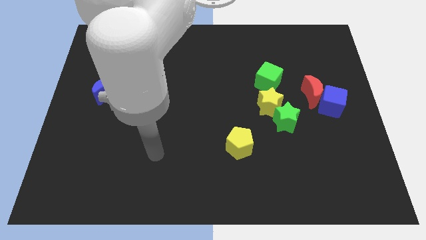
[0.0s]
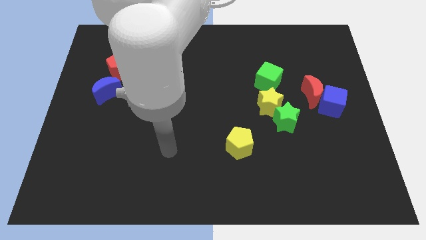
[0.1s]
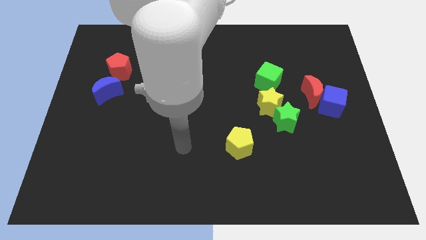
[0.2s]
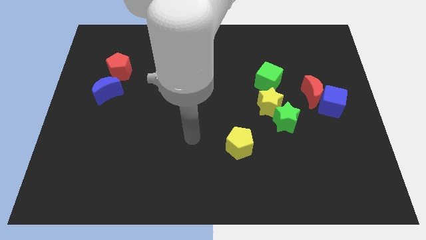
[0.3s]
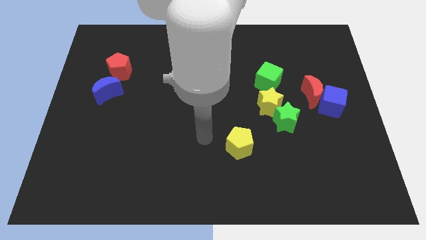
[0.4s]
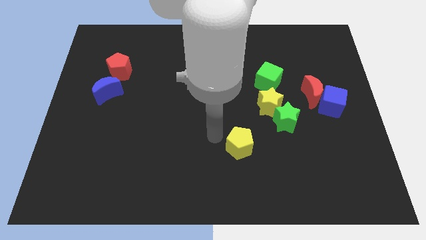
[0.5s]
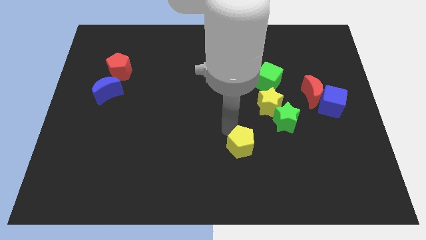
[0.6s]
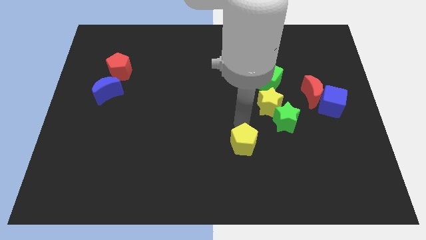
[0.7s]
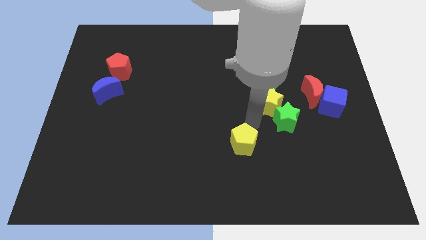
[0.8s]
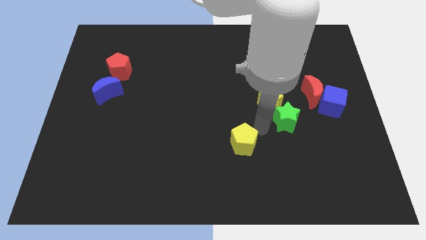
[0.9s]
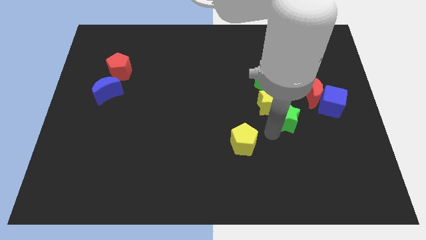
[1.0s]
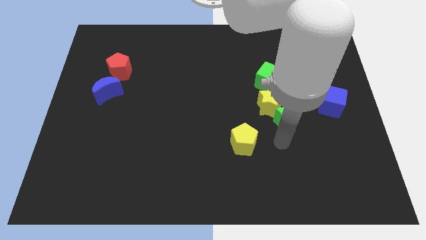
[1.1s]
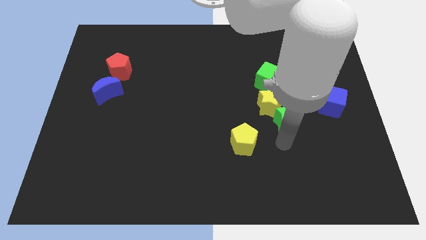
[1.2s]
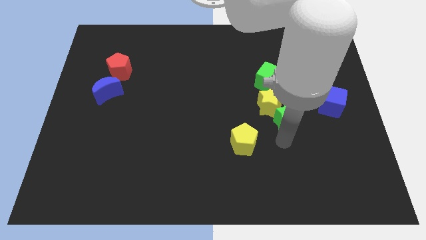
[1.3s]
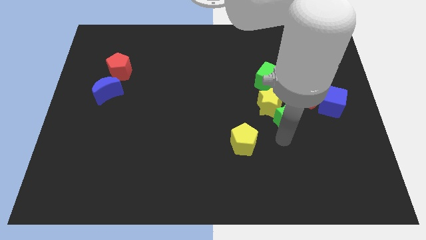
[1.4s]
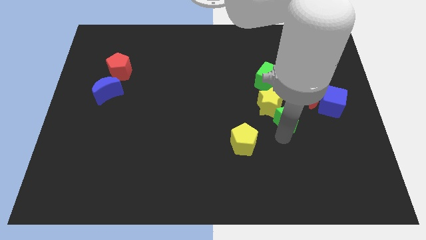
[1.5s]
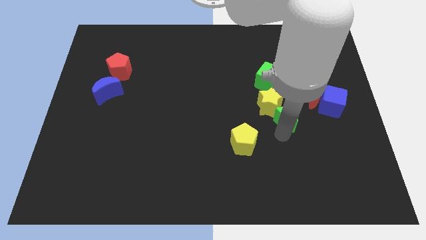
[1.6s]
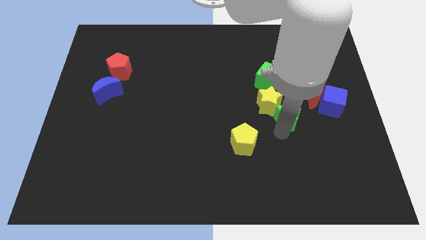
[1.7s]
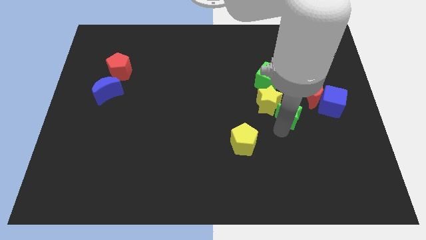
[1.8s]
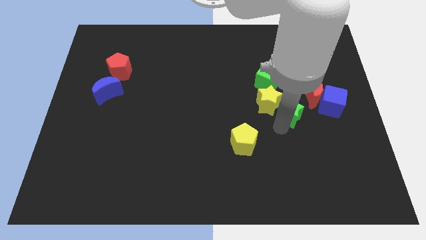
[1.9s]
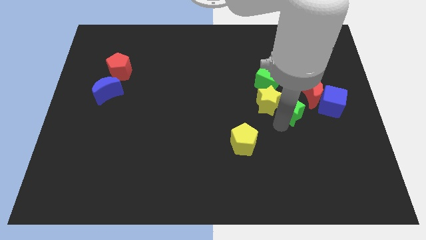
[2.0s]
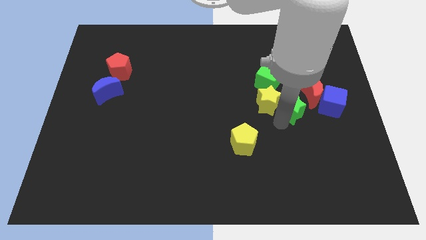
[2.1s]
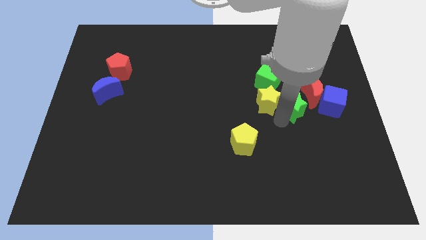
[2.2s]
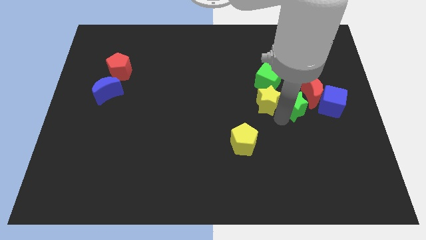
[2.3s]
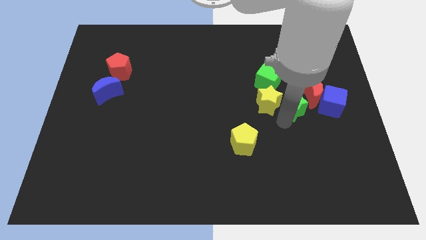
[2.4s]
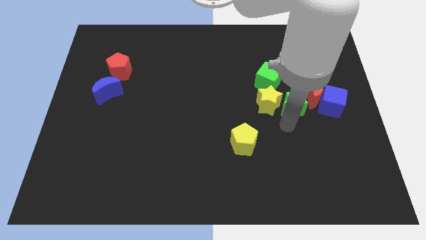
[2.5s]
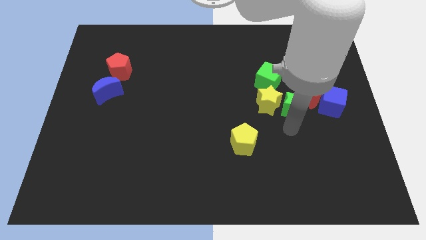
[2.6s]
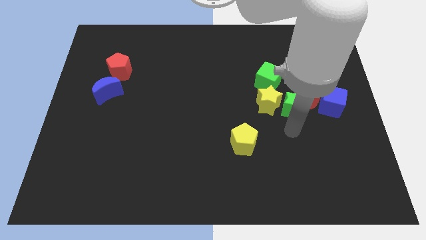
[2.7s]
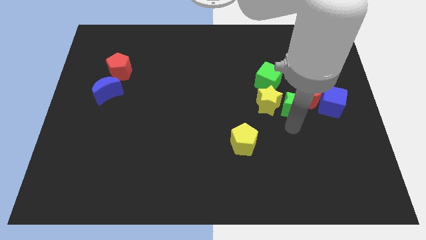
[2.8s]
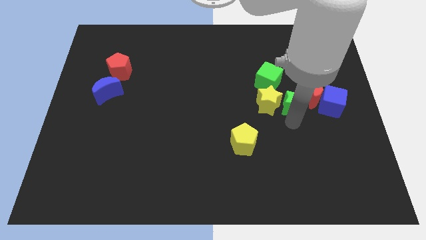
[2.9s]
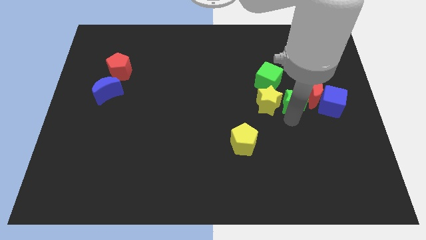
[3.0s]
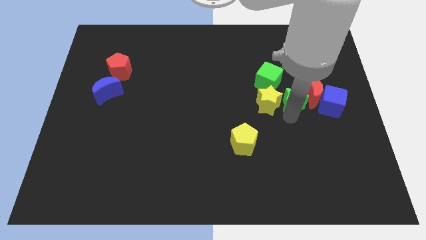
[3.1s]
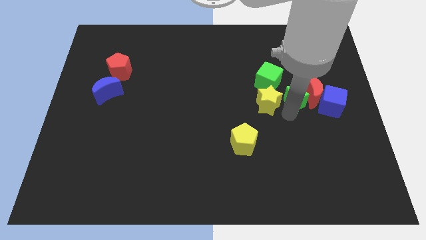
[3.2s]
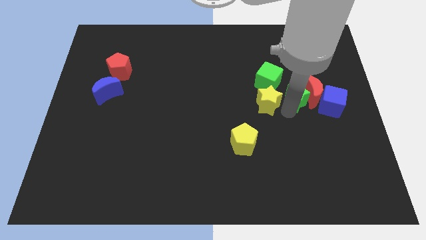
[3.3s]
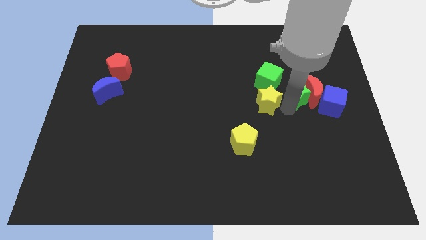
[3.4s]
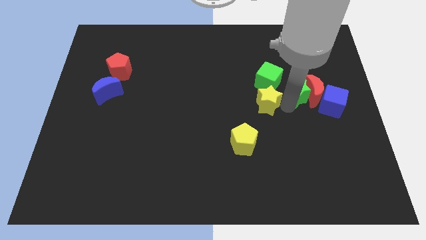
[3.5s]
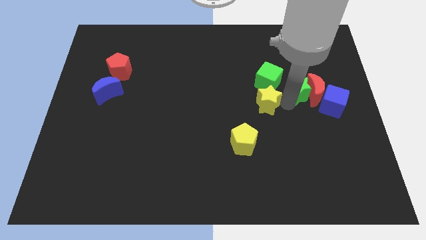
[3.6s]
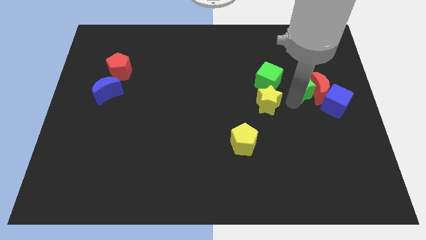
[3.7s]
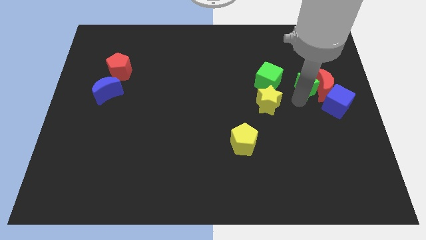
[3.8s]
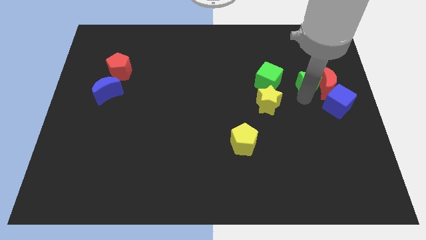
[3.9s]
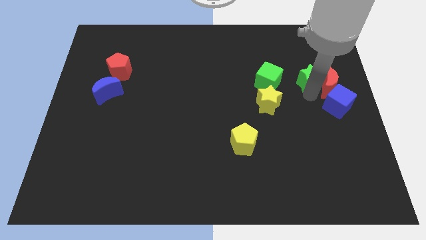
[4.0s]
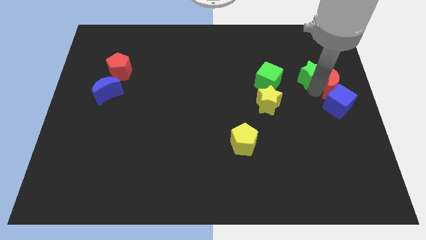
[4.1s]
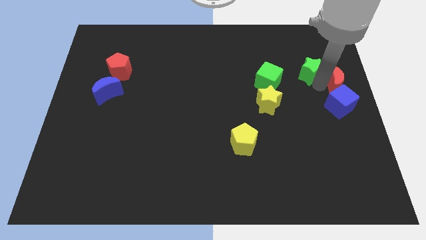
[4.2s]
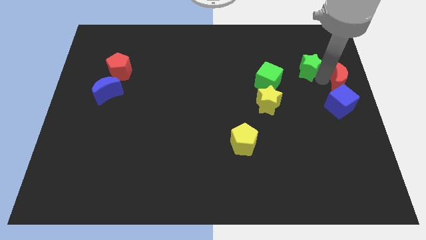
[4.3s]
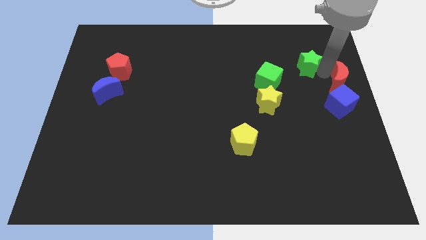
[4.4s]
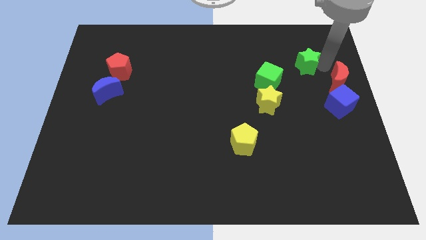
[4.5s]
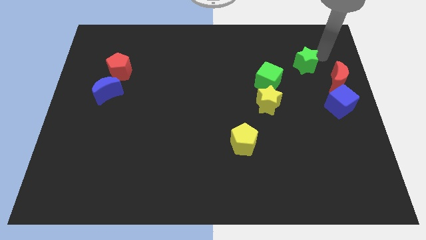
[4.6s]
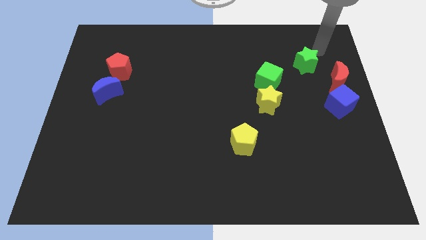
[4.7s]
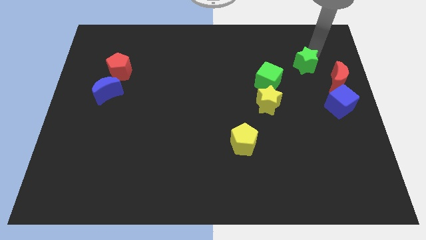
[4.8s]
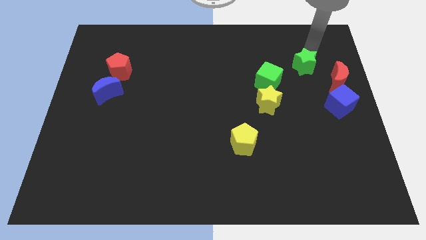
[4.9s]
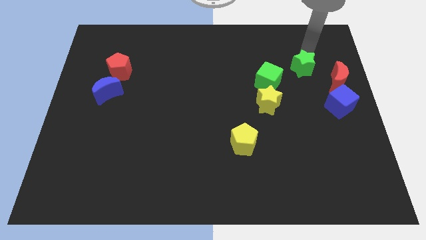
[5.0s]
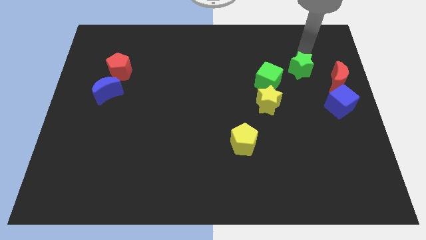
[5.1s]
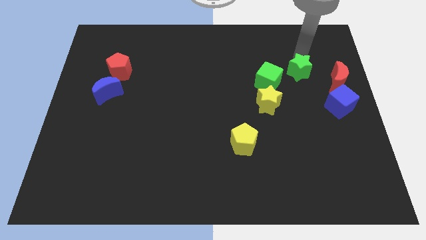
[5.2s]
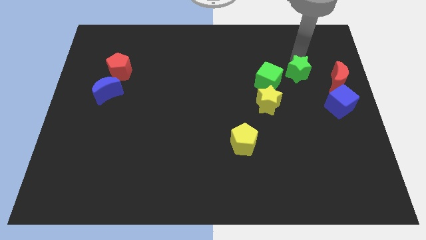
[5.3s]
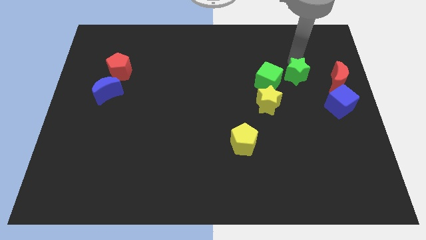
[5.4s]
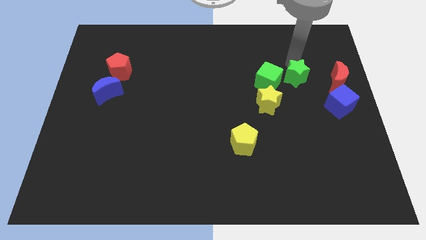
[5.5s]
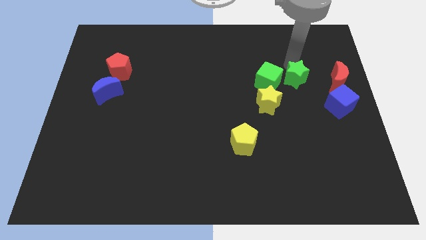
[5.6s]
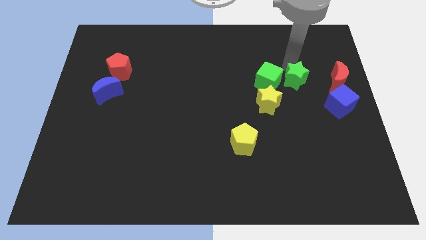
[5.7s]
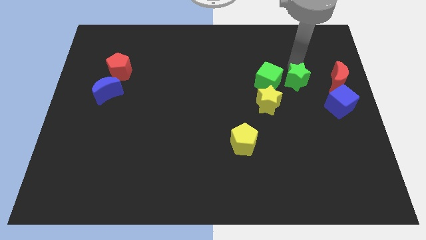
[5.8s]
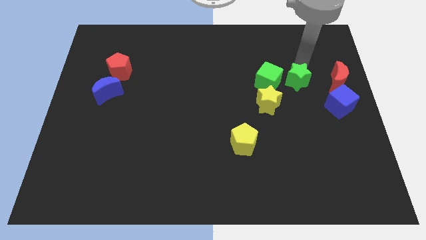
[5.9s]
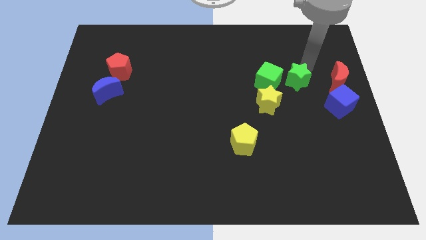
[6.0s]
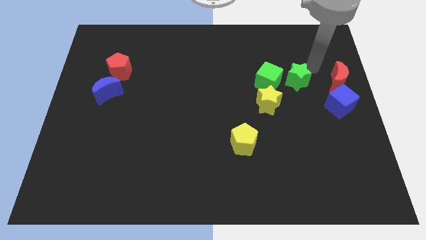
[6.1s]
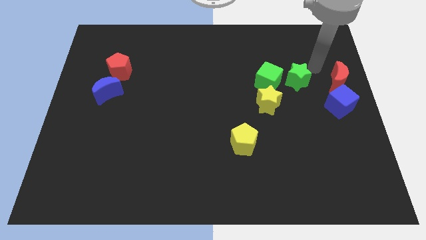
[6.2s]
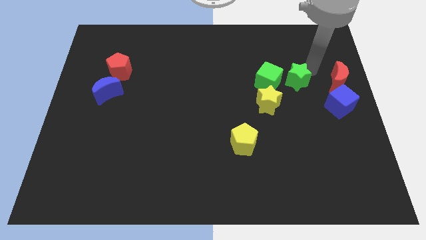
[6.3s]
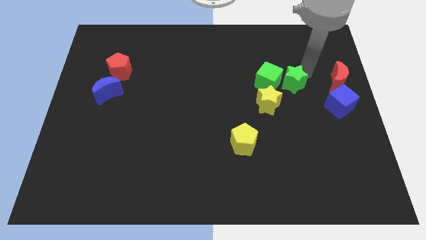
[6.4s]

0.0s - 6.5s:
slide the green star close to the green cube
